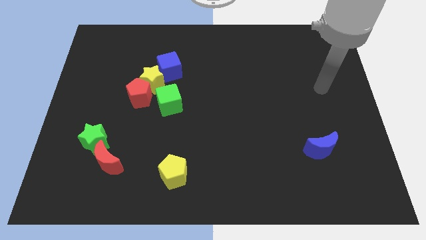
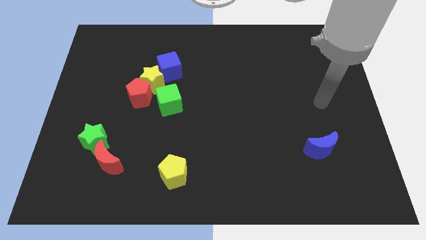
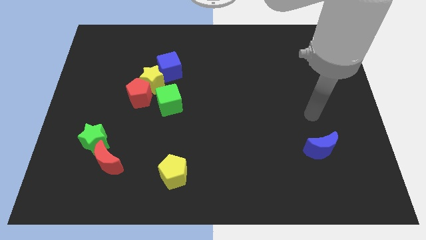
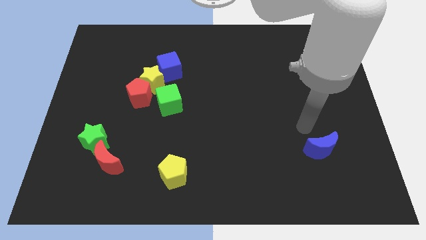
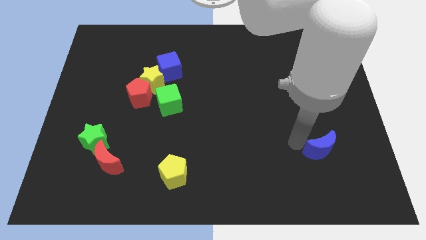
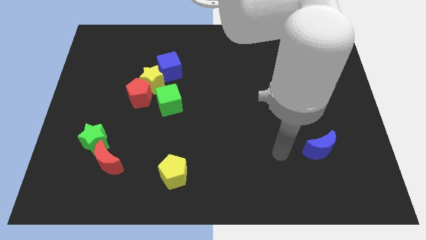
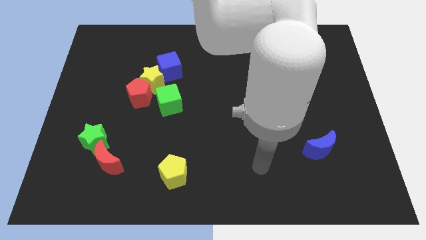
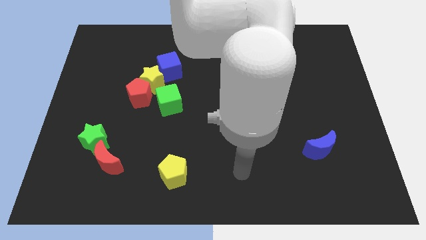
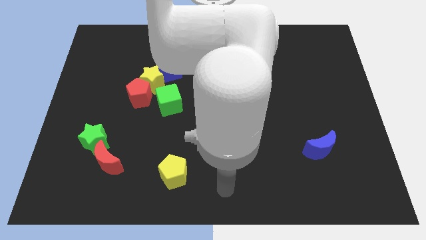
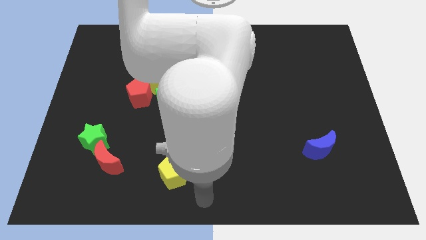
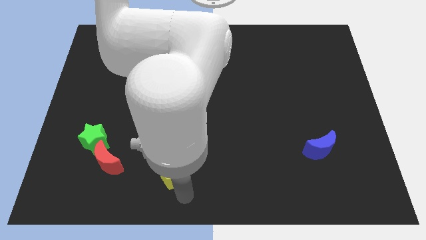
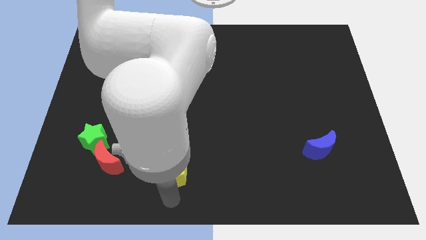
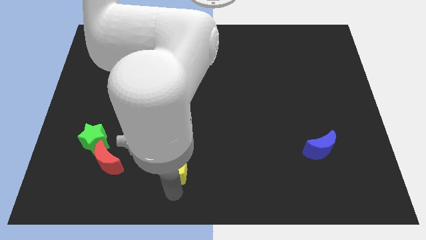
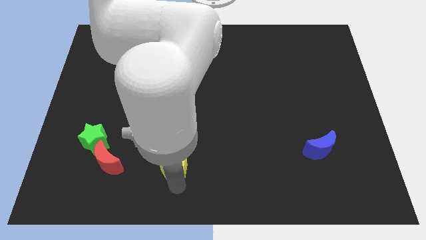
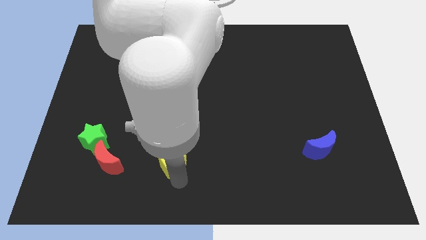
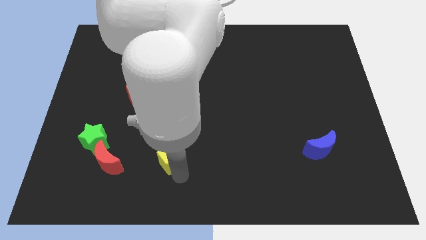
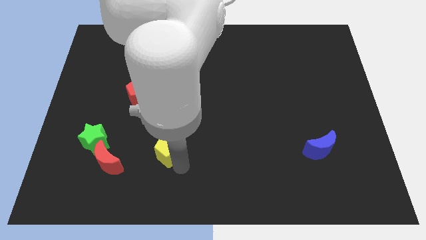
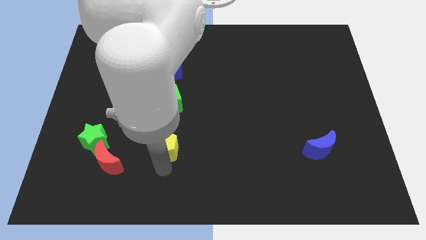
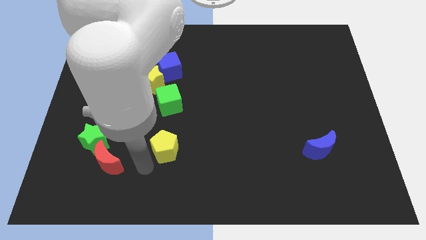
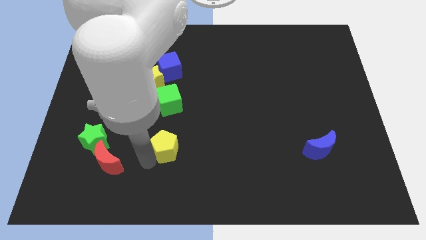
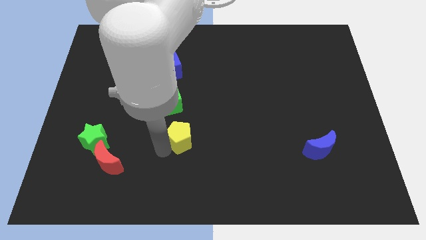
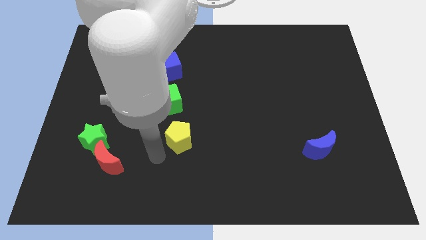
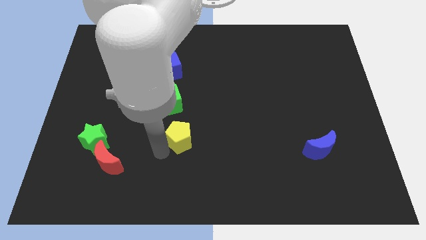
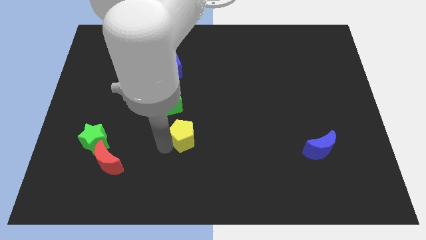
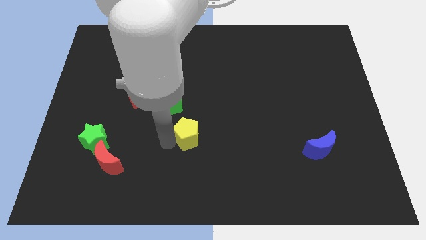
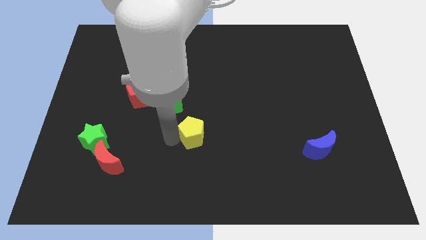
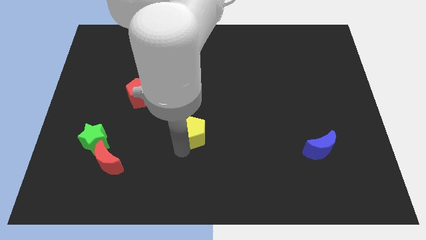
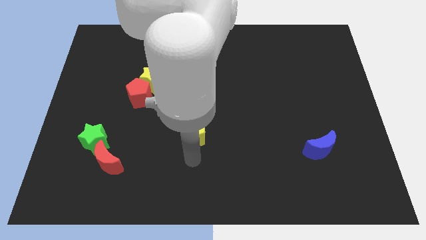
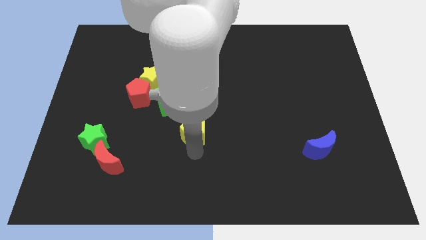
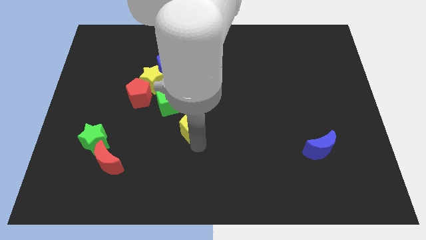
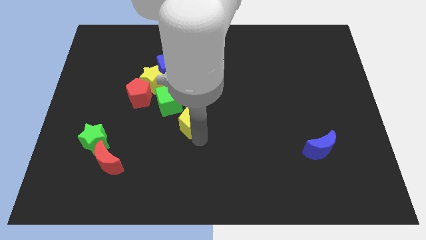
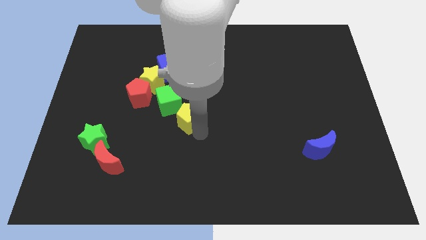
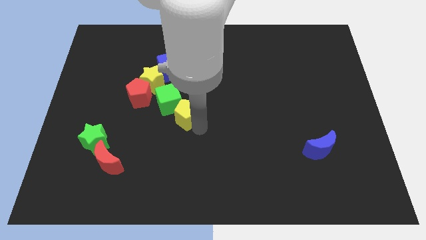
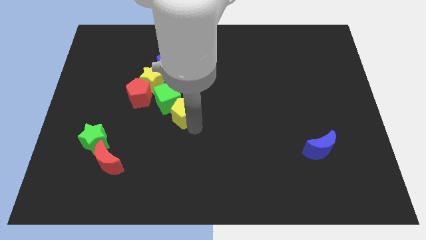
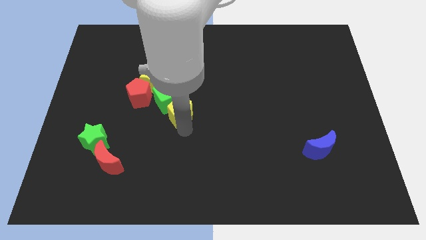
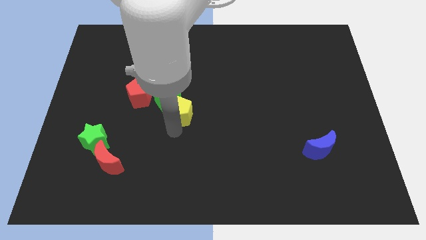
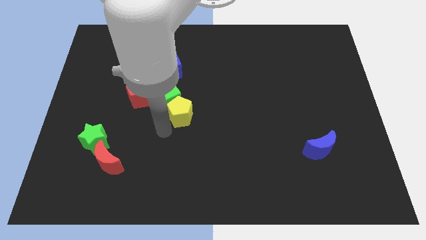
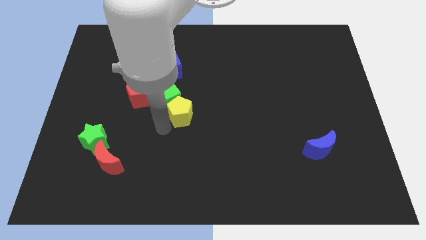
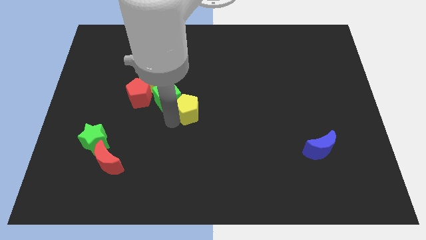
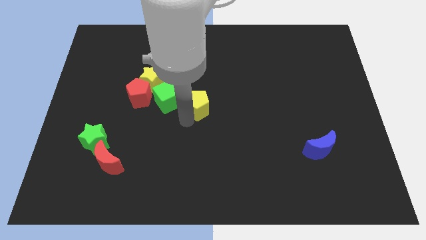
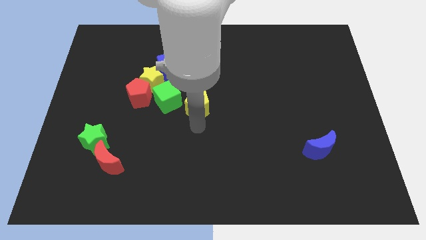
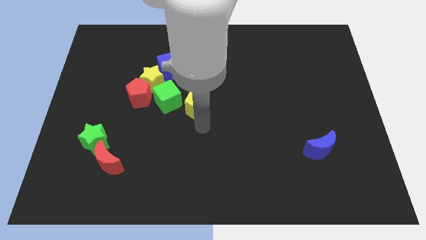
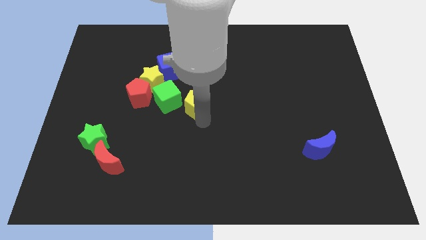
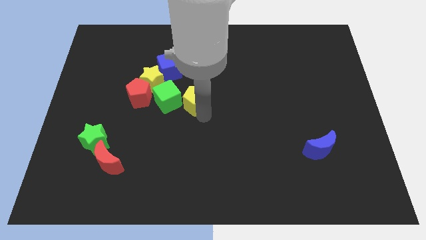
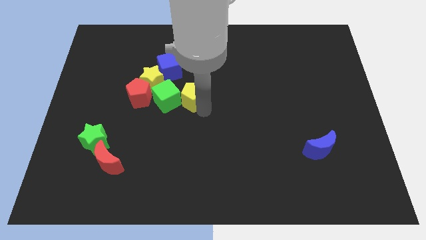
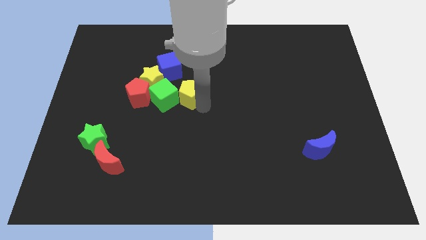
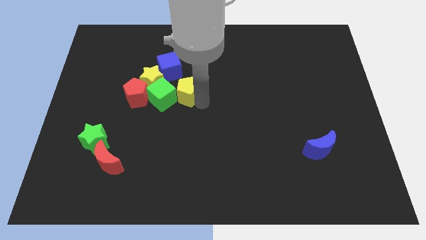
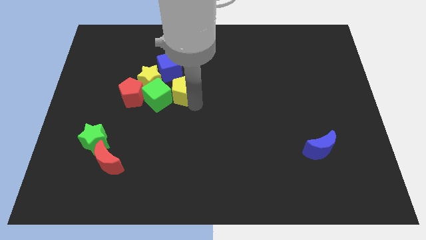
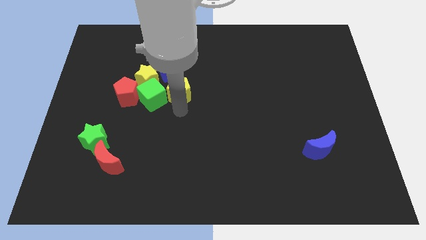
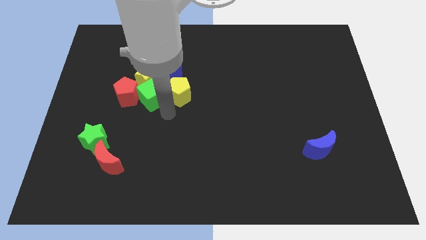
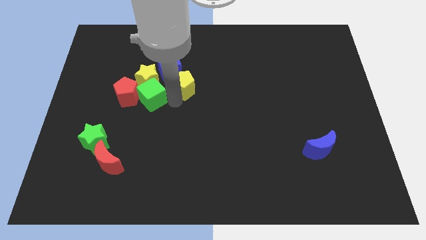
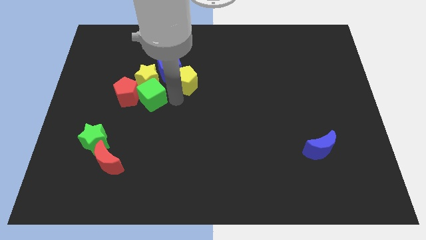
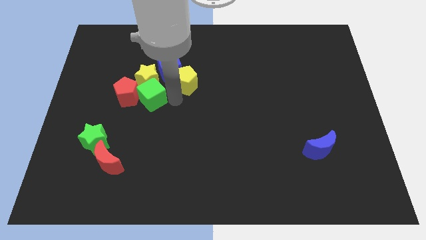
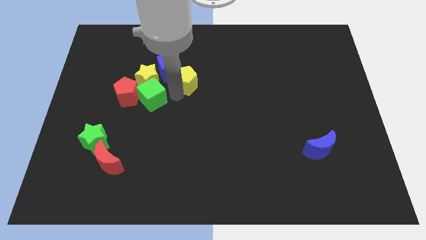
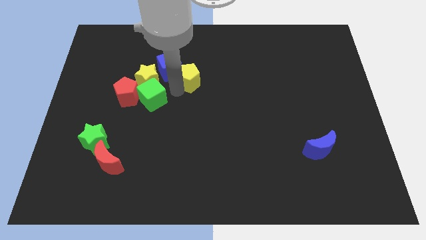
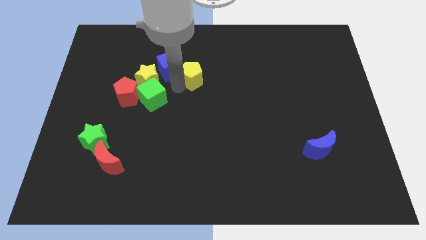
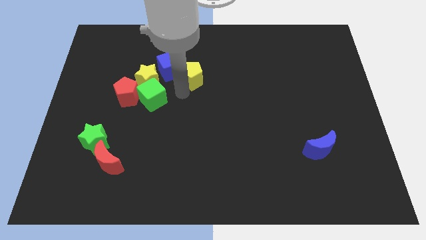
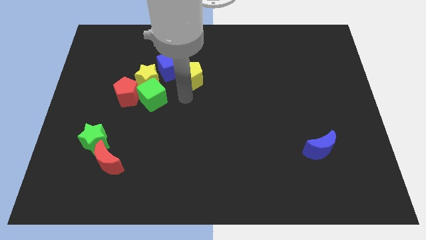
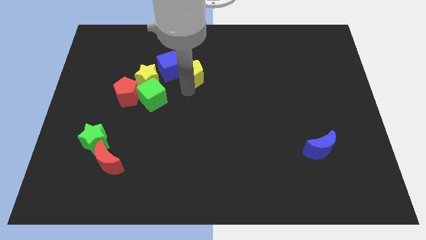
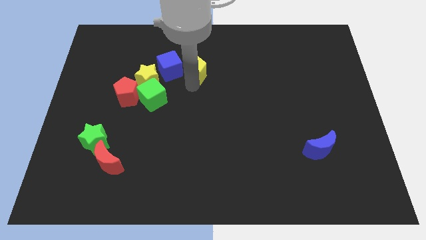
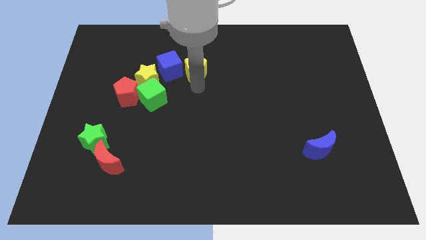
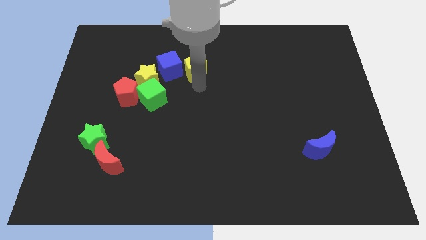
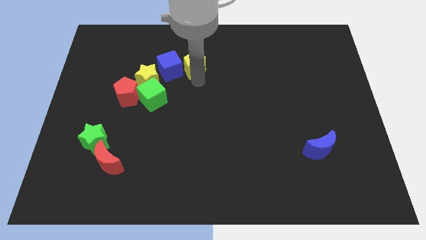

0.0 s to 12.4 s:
move the yellow pentagon to the top right of the blue cube

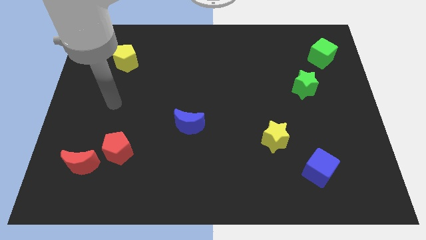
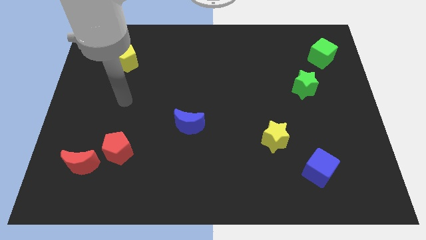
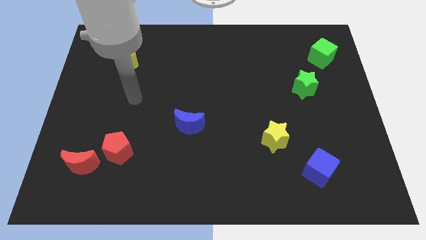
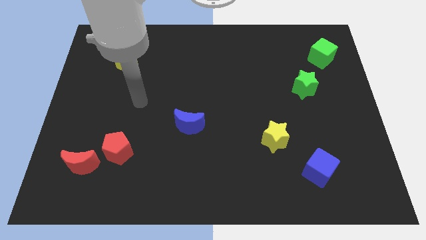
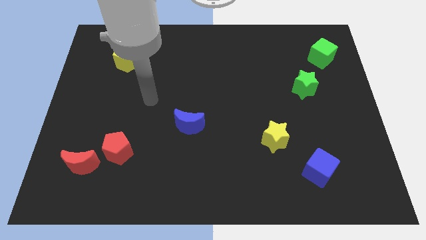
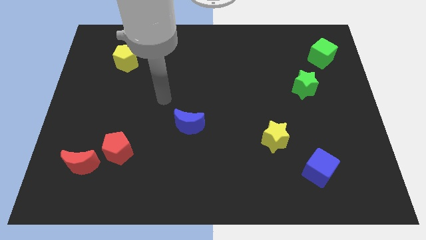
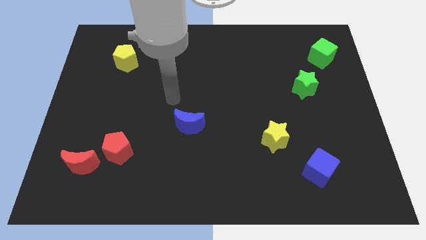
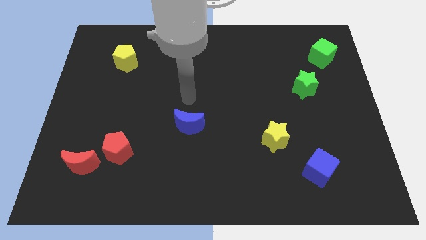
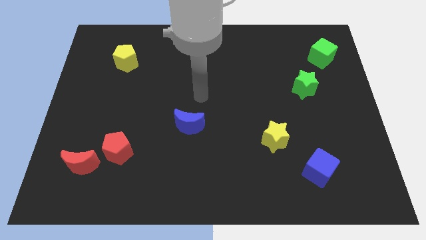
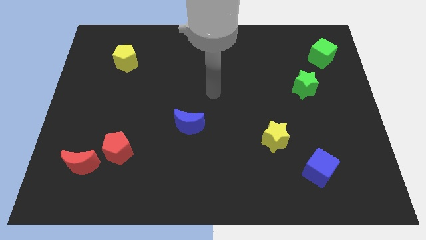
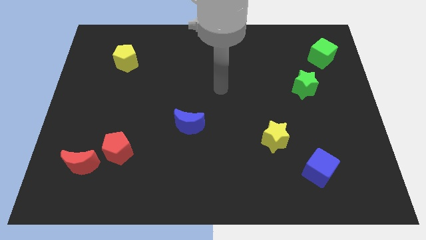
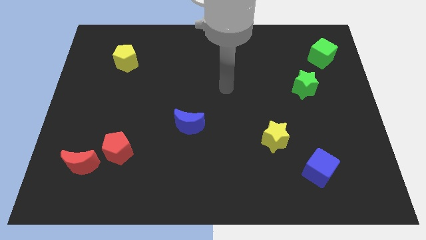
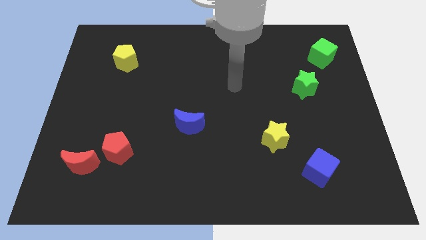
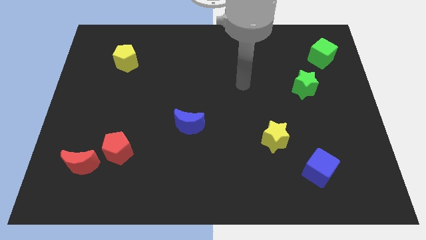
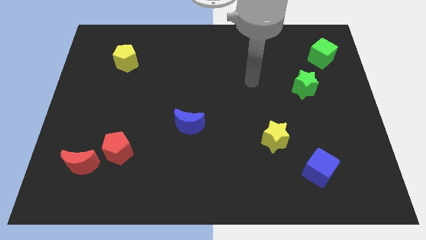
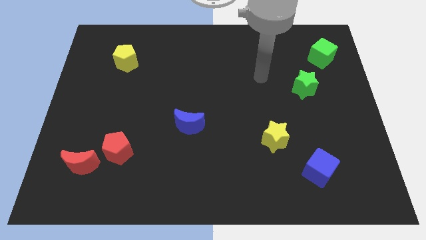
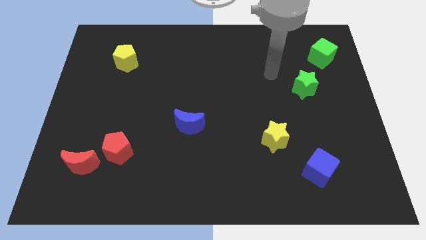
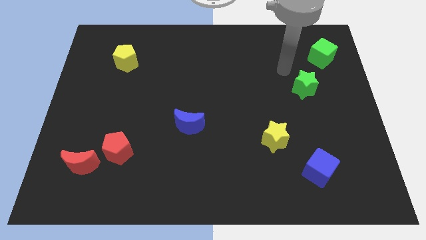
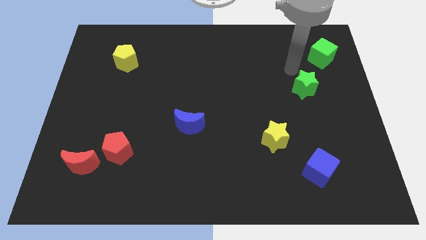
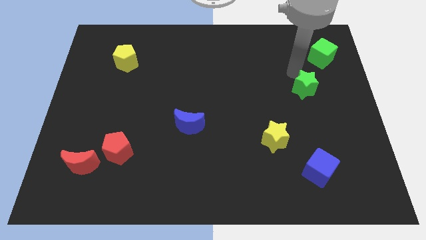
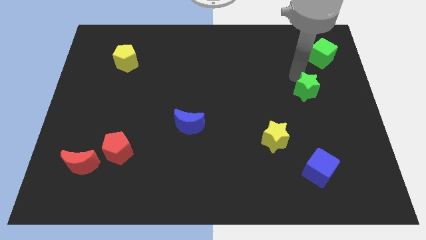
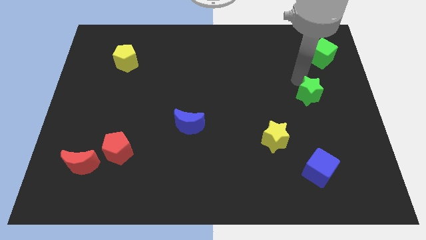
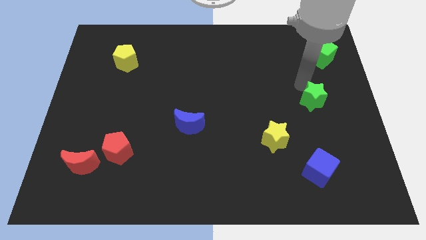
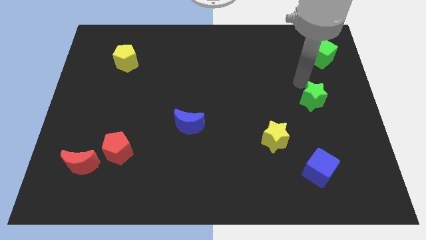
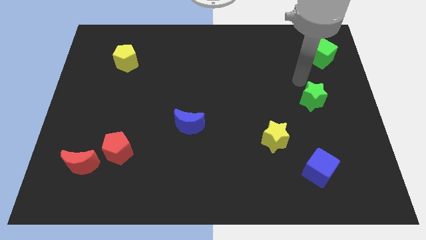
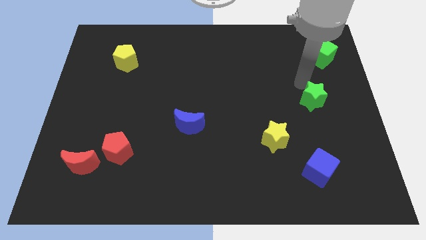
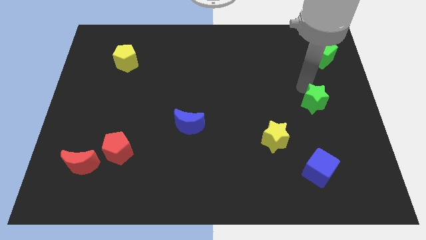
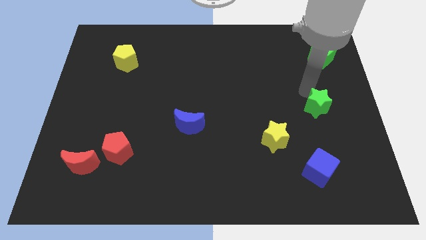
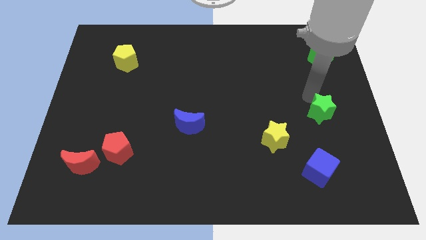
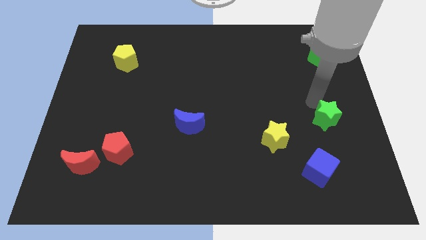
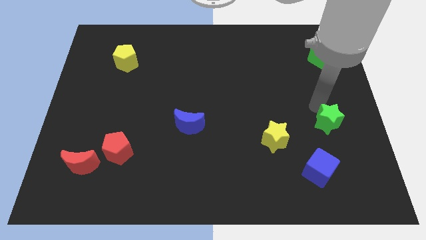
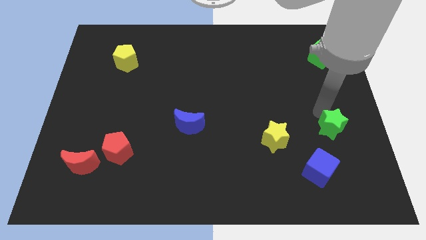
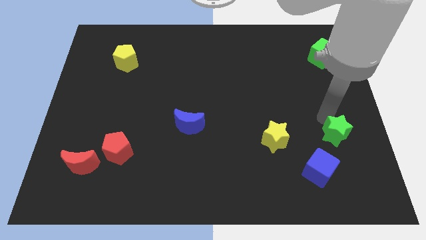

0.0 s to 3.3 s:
put the green star to the top right of the blue cube
